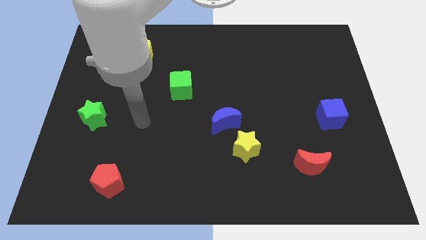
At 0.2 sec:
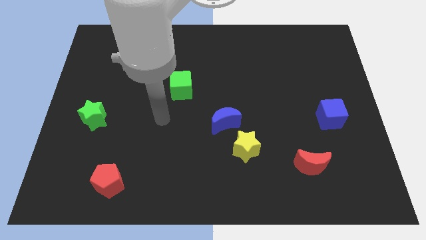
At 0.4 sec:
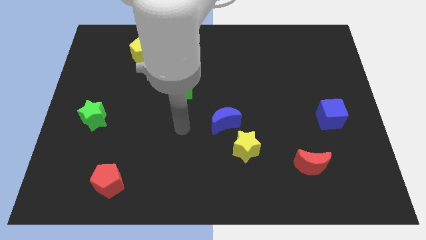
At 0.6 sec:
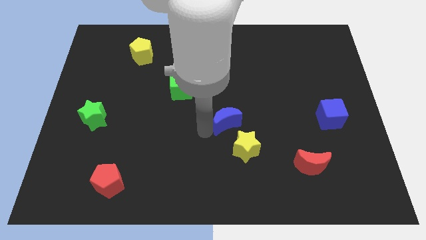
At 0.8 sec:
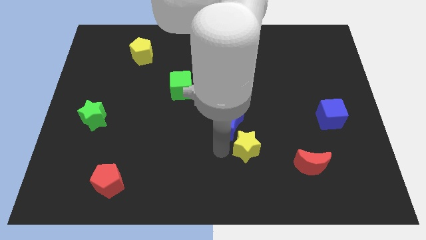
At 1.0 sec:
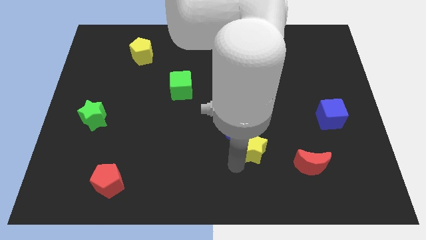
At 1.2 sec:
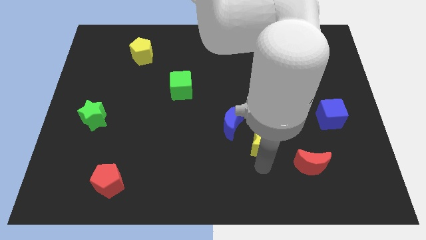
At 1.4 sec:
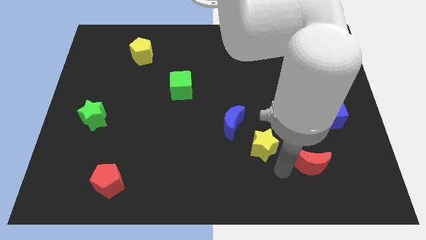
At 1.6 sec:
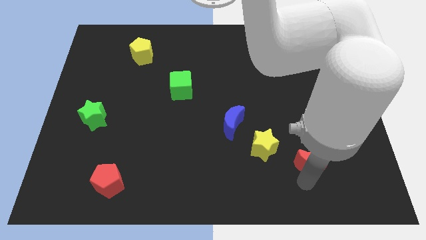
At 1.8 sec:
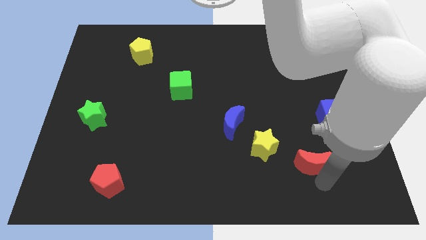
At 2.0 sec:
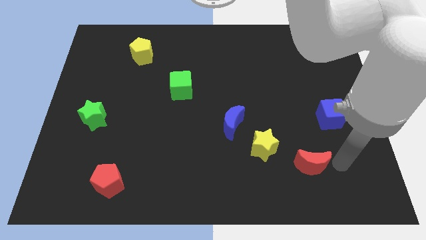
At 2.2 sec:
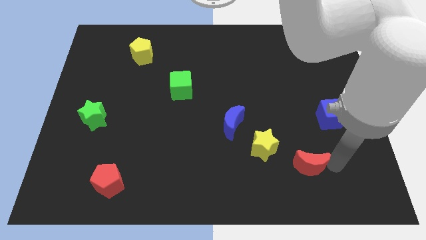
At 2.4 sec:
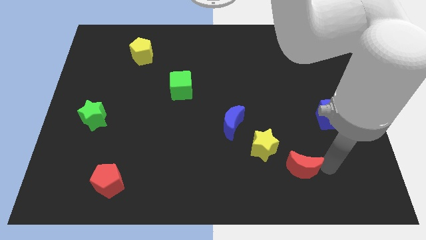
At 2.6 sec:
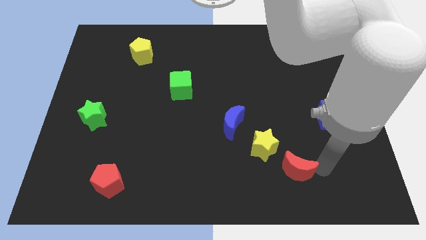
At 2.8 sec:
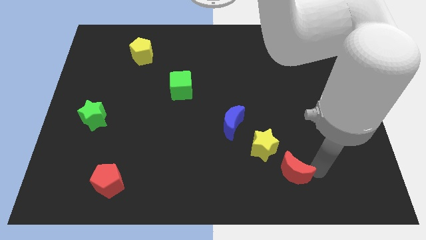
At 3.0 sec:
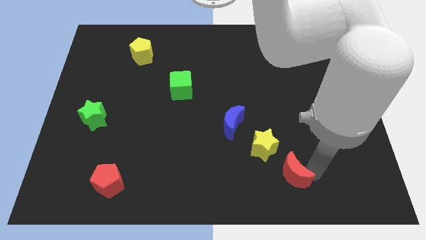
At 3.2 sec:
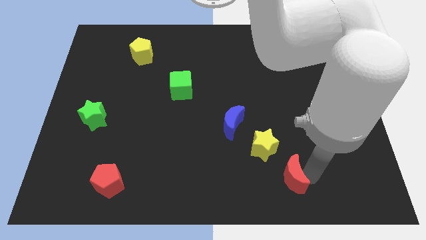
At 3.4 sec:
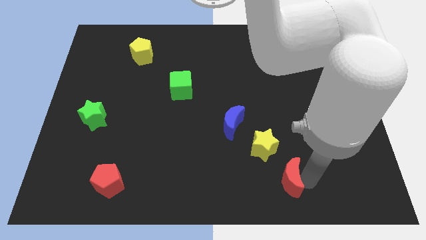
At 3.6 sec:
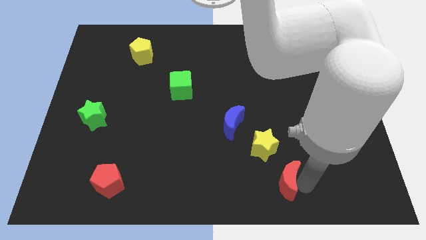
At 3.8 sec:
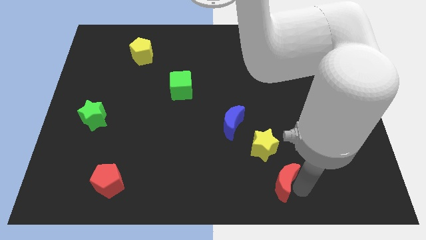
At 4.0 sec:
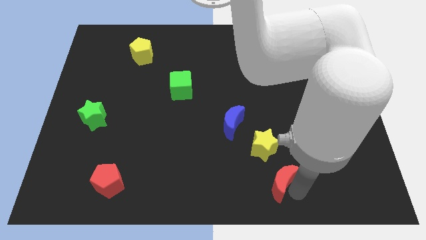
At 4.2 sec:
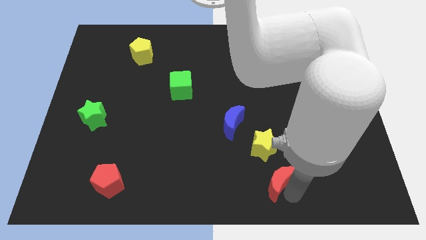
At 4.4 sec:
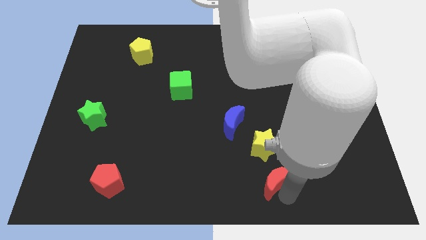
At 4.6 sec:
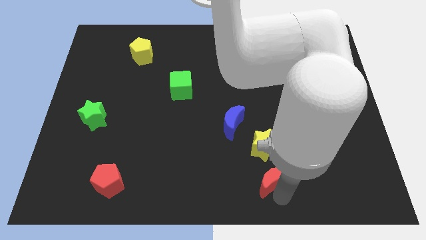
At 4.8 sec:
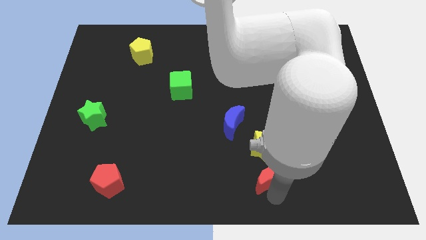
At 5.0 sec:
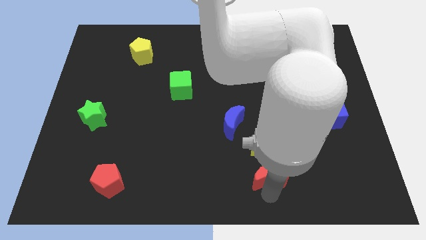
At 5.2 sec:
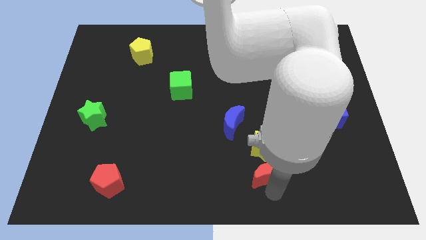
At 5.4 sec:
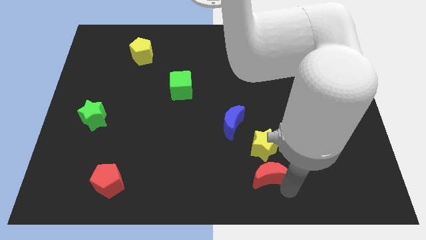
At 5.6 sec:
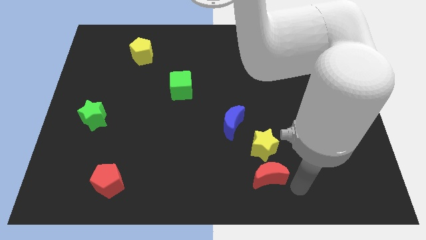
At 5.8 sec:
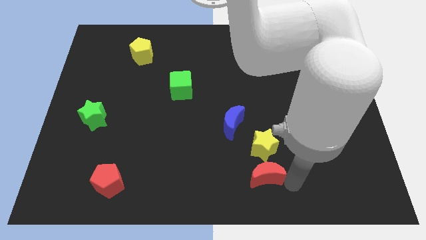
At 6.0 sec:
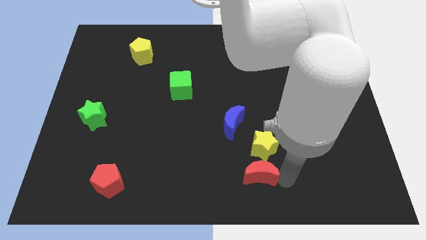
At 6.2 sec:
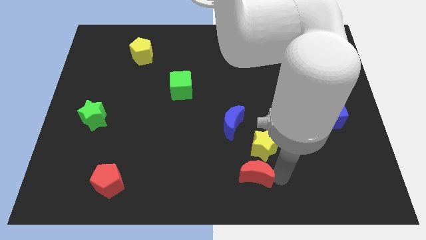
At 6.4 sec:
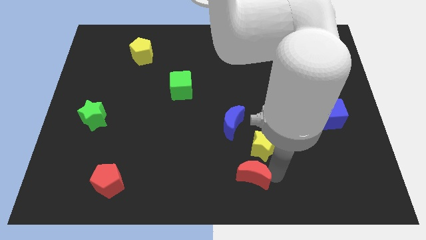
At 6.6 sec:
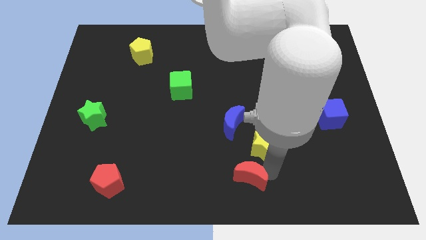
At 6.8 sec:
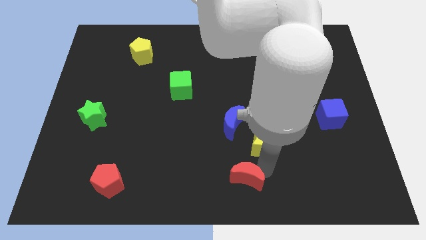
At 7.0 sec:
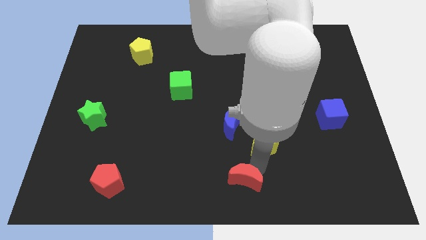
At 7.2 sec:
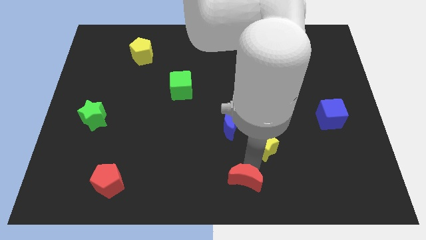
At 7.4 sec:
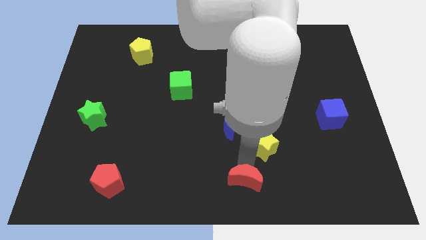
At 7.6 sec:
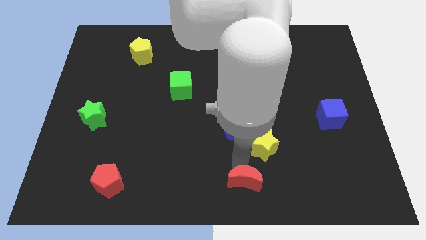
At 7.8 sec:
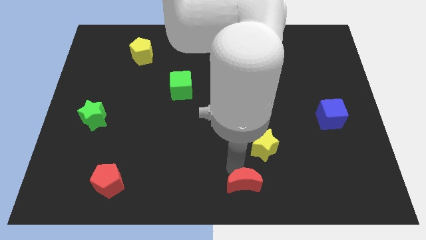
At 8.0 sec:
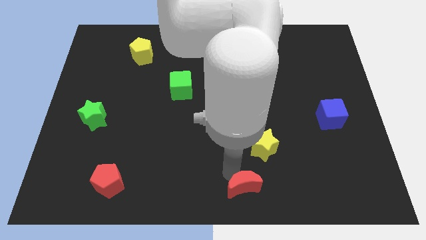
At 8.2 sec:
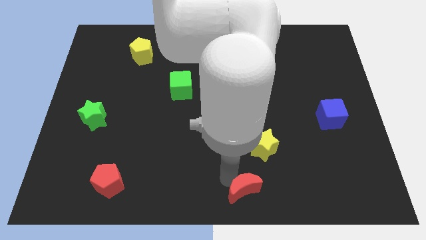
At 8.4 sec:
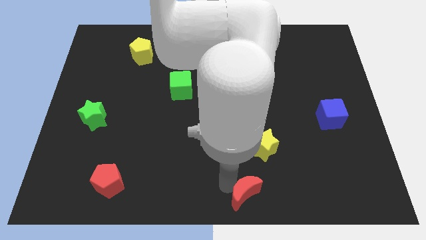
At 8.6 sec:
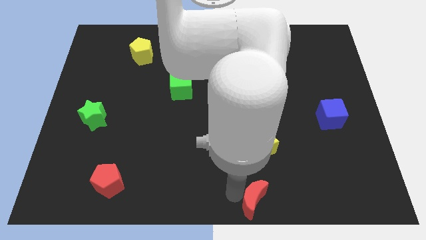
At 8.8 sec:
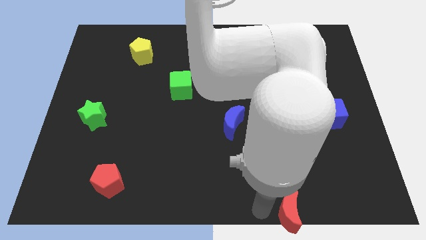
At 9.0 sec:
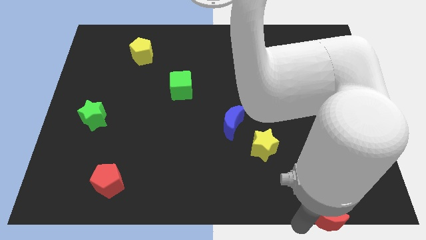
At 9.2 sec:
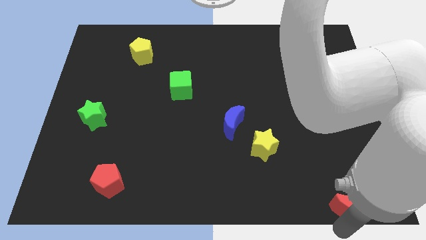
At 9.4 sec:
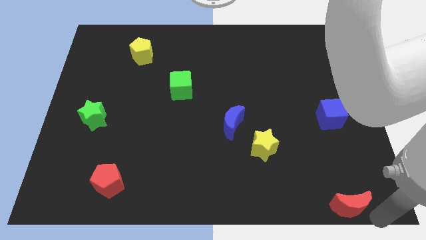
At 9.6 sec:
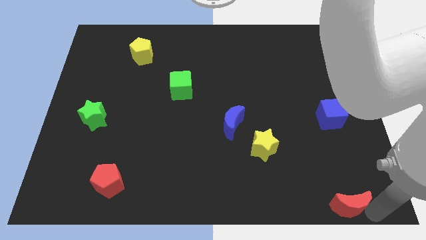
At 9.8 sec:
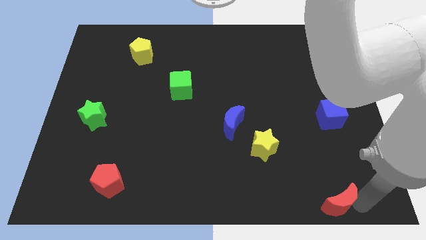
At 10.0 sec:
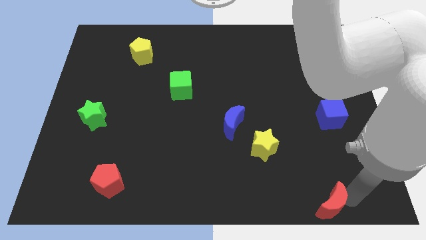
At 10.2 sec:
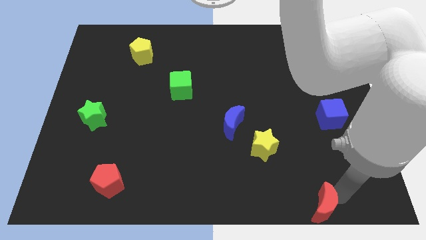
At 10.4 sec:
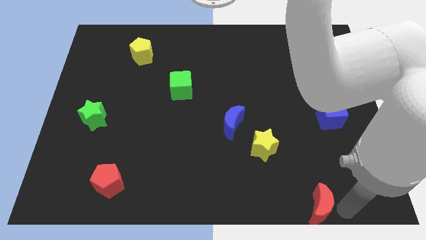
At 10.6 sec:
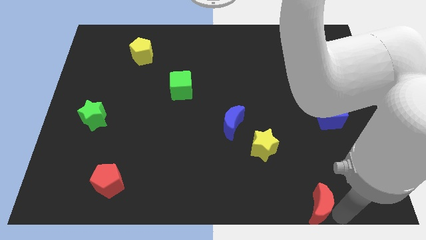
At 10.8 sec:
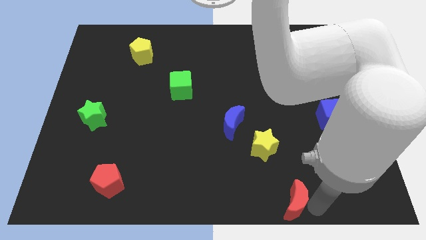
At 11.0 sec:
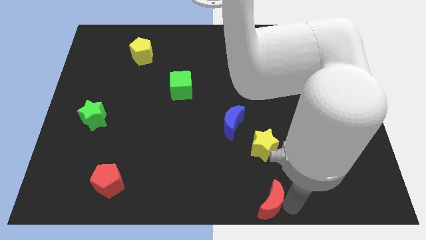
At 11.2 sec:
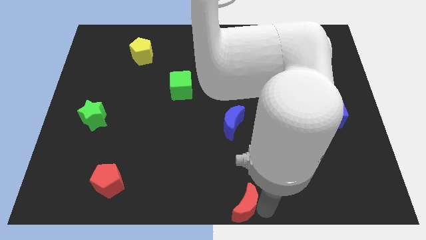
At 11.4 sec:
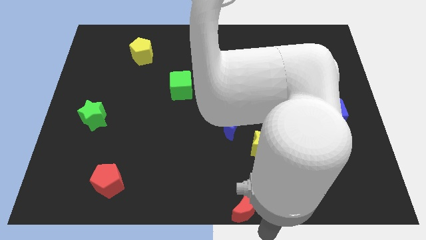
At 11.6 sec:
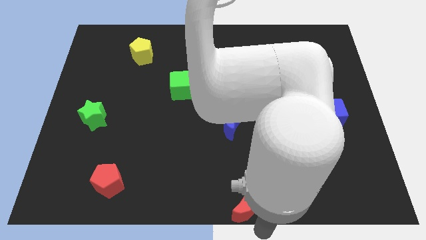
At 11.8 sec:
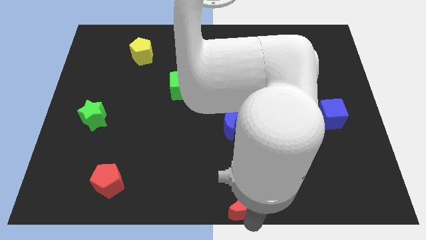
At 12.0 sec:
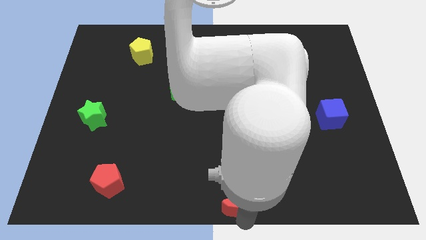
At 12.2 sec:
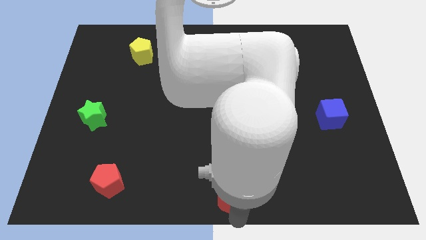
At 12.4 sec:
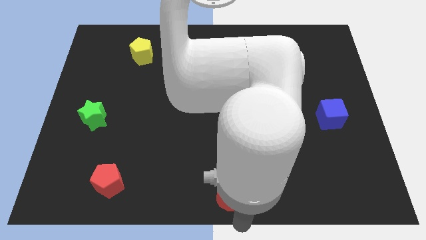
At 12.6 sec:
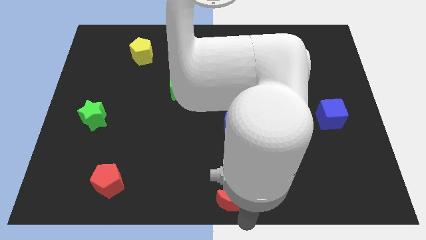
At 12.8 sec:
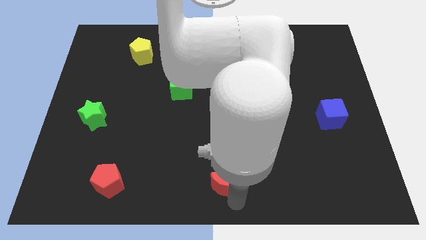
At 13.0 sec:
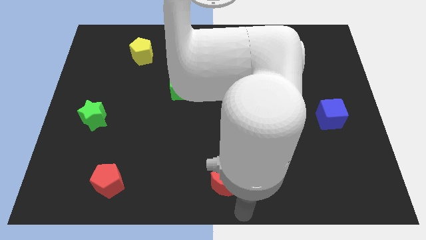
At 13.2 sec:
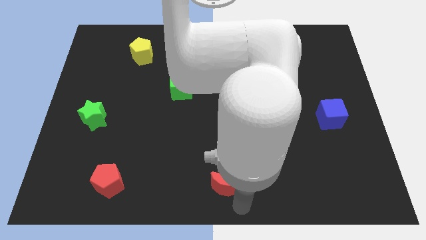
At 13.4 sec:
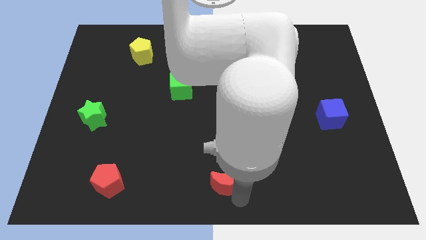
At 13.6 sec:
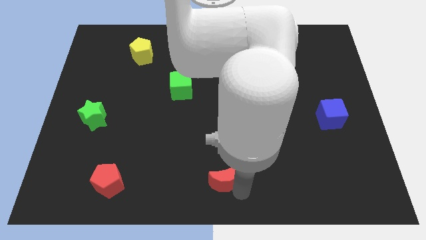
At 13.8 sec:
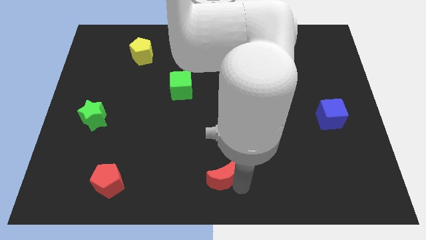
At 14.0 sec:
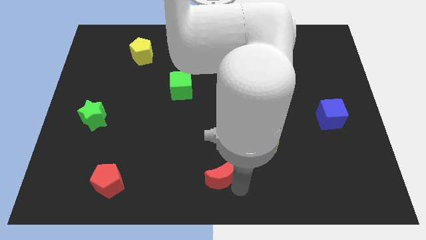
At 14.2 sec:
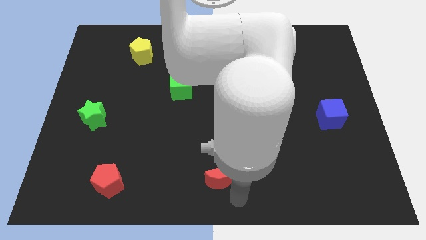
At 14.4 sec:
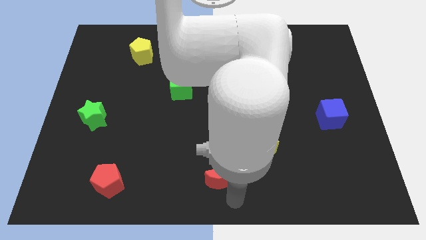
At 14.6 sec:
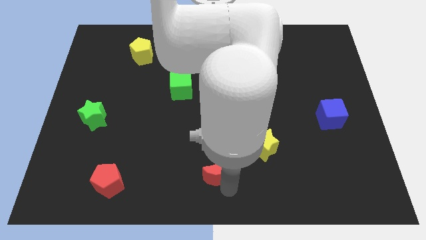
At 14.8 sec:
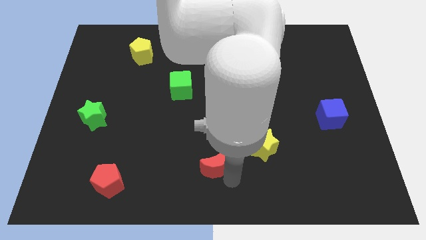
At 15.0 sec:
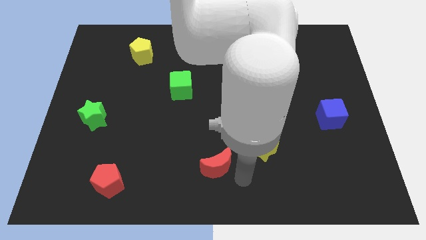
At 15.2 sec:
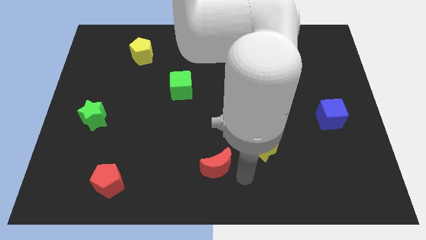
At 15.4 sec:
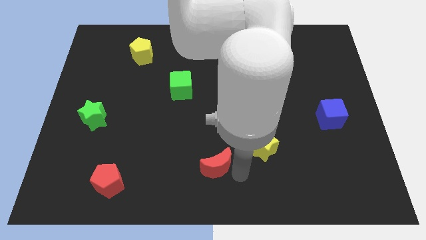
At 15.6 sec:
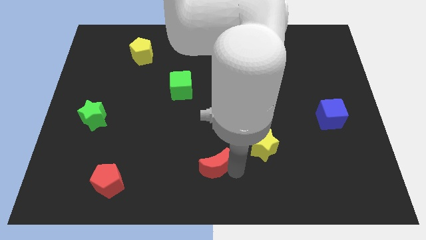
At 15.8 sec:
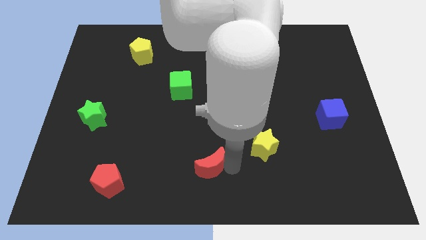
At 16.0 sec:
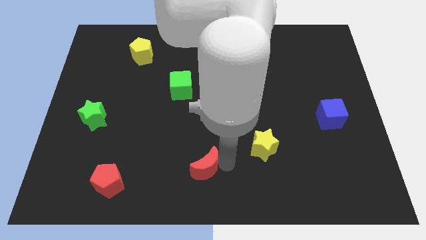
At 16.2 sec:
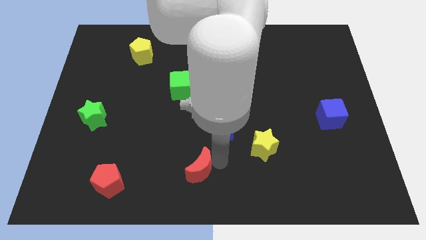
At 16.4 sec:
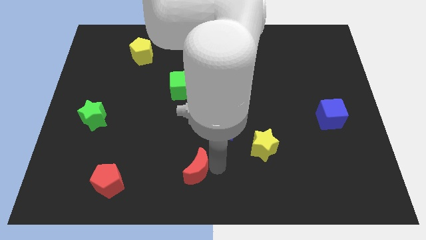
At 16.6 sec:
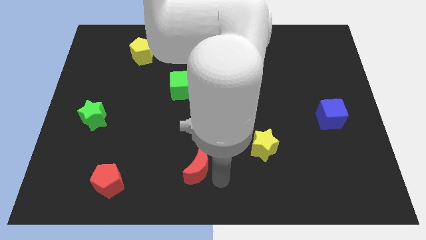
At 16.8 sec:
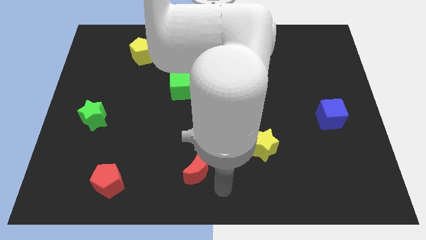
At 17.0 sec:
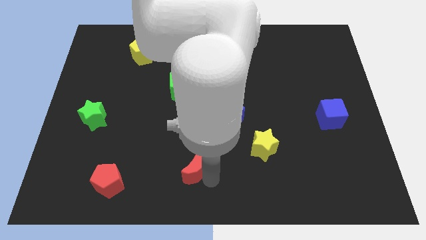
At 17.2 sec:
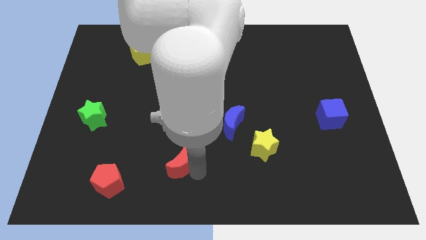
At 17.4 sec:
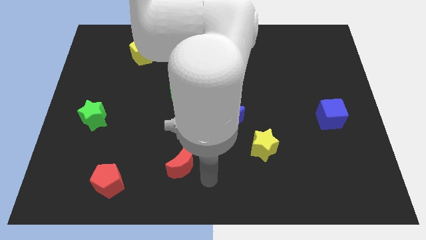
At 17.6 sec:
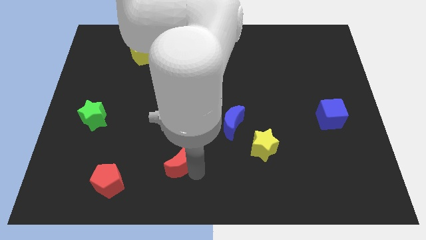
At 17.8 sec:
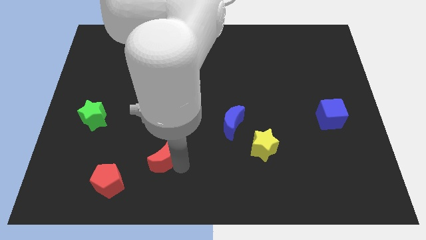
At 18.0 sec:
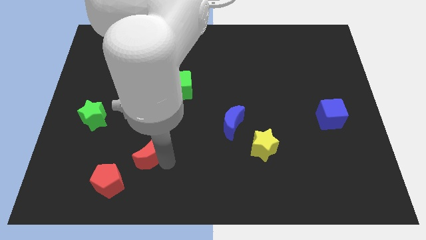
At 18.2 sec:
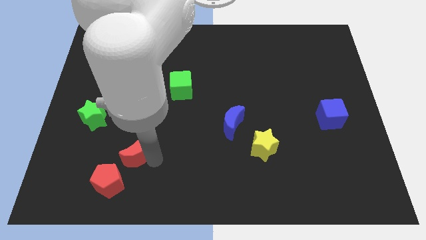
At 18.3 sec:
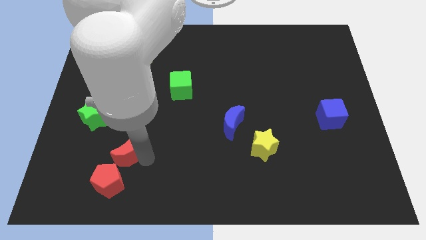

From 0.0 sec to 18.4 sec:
move the red moon to the top side of the red pentagon
